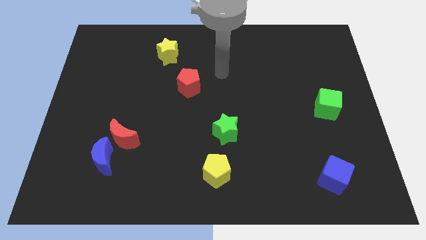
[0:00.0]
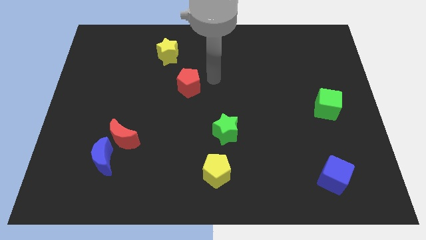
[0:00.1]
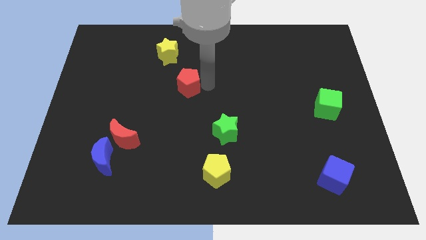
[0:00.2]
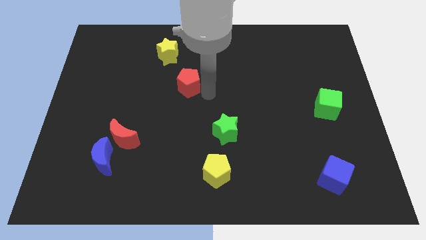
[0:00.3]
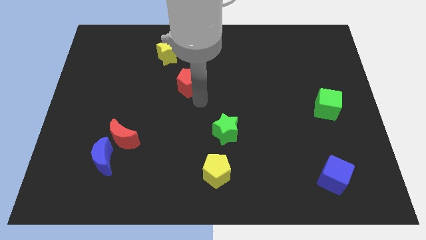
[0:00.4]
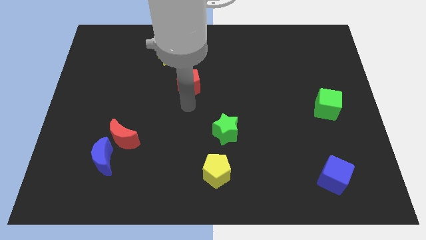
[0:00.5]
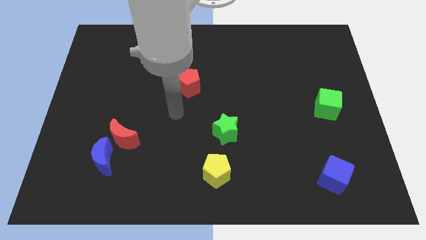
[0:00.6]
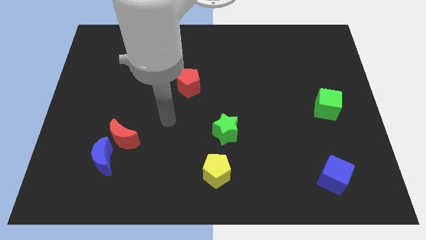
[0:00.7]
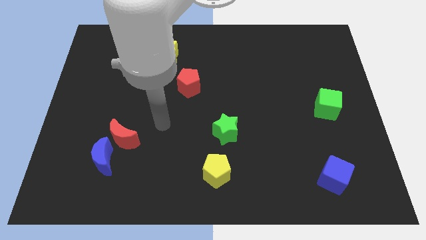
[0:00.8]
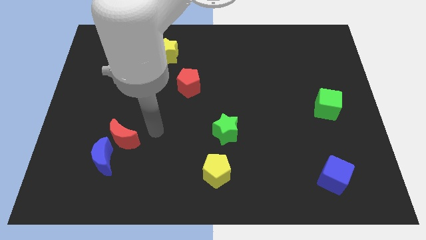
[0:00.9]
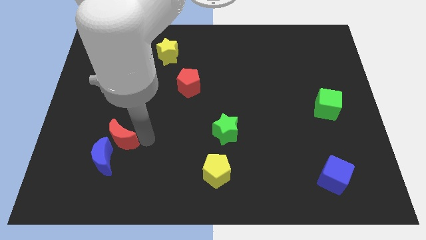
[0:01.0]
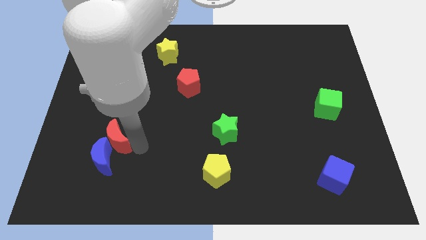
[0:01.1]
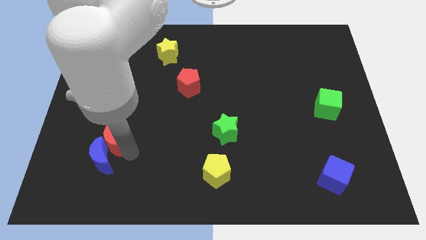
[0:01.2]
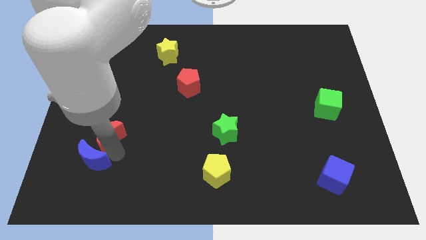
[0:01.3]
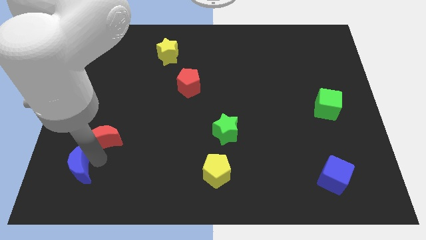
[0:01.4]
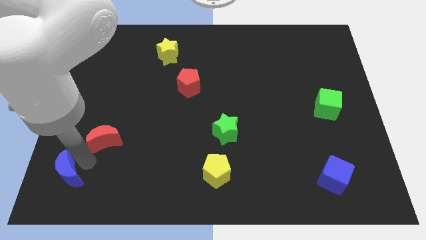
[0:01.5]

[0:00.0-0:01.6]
separate the red moon from the blue moon

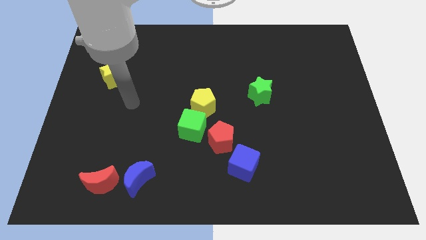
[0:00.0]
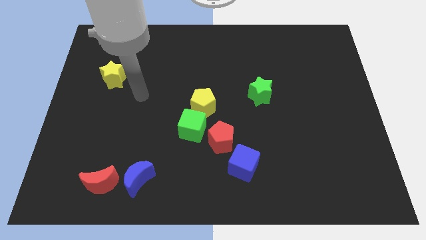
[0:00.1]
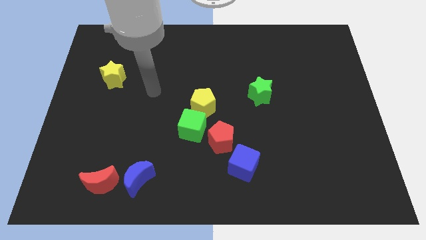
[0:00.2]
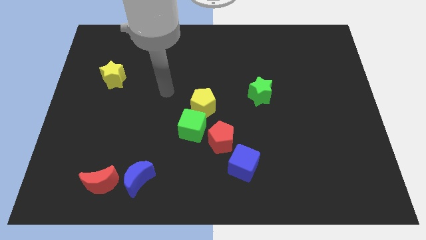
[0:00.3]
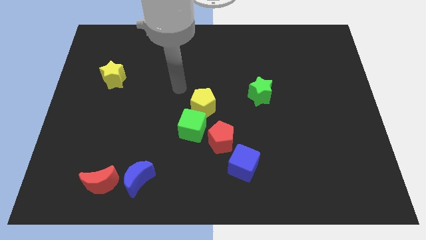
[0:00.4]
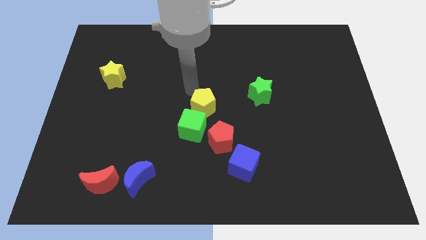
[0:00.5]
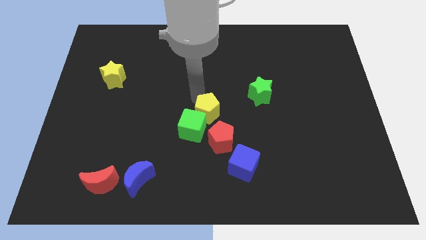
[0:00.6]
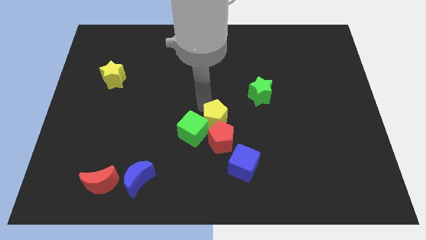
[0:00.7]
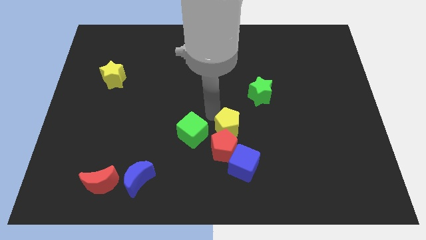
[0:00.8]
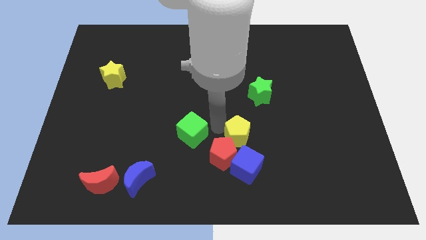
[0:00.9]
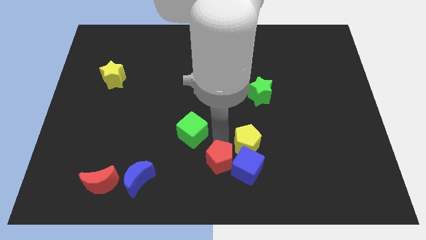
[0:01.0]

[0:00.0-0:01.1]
separate the green cube from the yellow pentagon and red pentagon

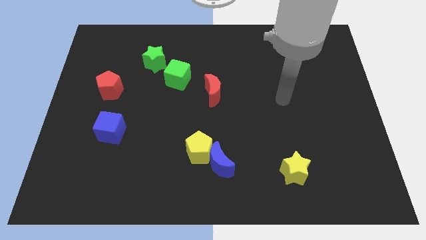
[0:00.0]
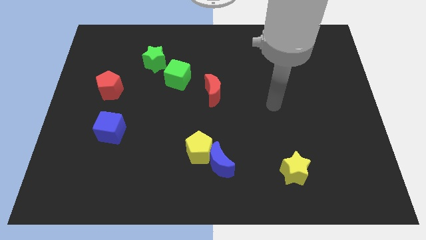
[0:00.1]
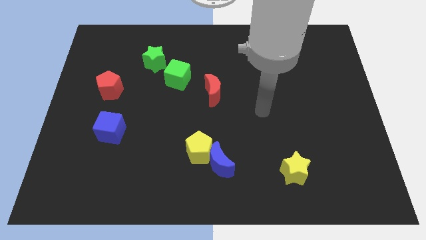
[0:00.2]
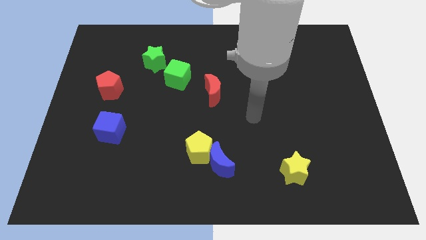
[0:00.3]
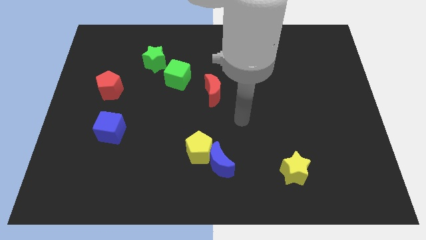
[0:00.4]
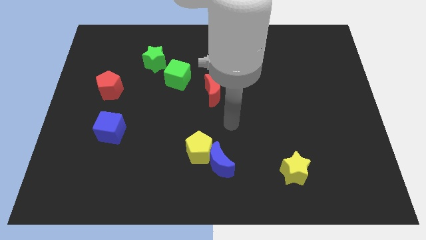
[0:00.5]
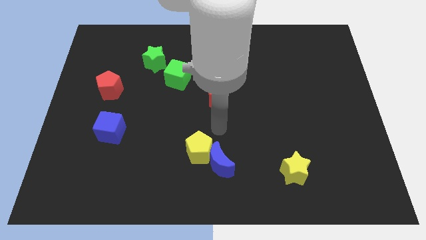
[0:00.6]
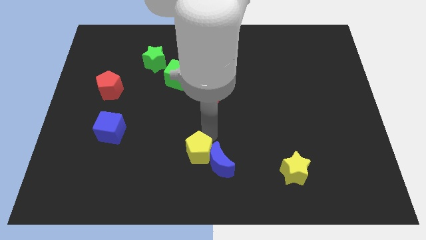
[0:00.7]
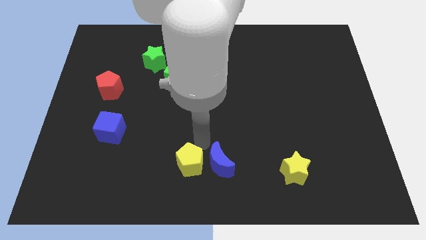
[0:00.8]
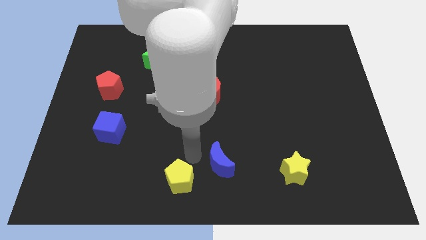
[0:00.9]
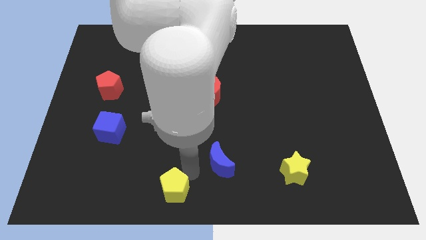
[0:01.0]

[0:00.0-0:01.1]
move the blue moon away from the yellow pentagon

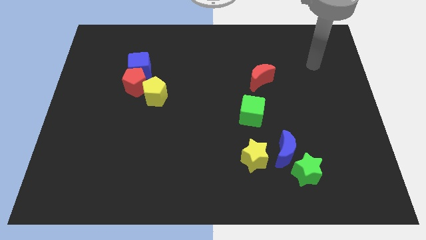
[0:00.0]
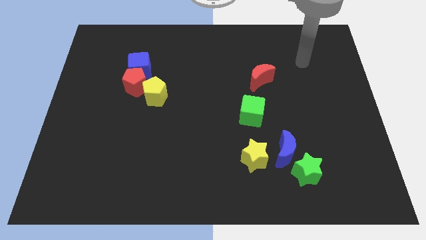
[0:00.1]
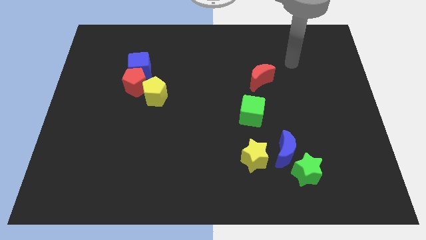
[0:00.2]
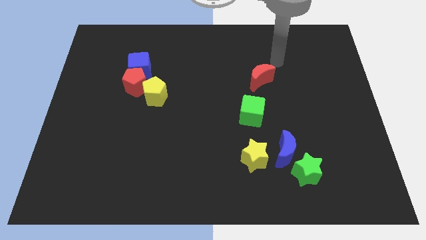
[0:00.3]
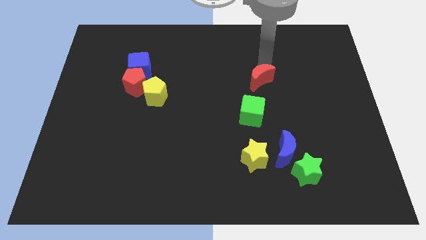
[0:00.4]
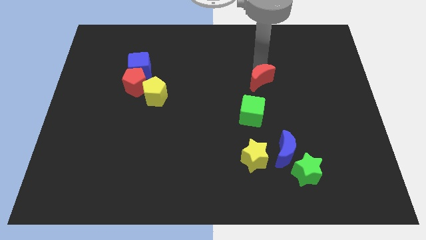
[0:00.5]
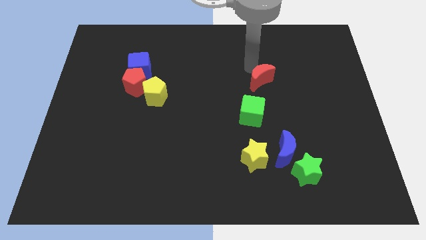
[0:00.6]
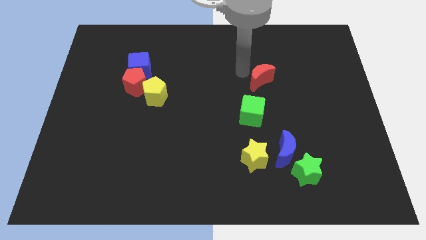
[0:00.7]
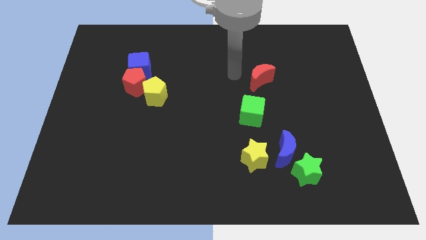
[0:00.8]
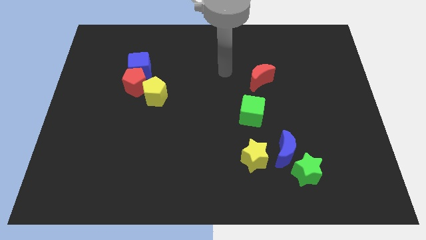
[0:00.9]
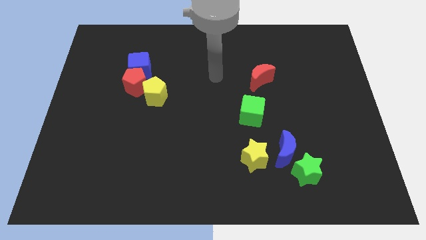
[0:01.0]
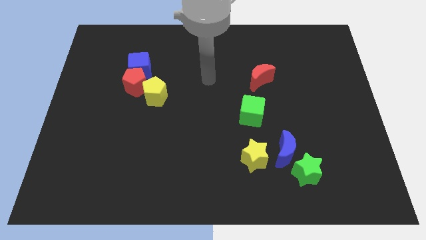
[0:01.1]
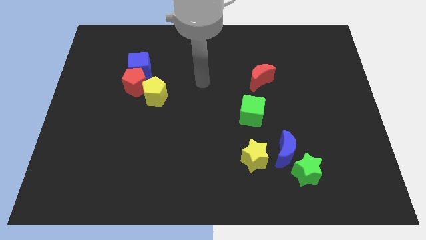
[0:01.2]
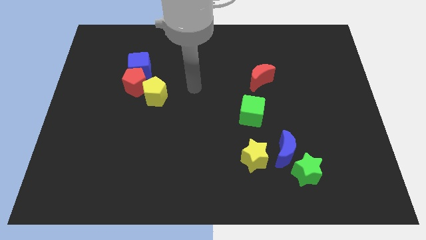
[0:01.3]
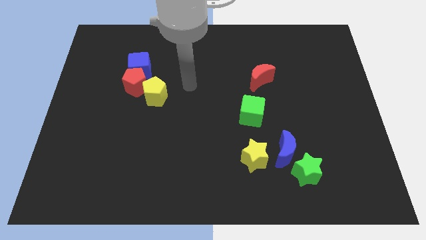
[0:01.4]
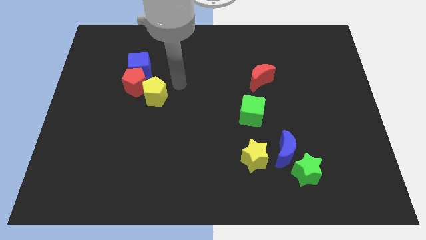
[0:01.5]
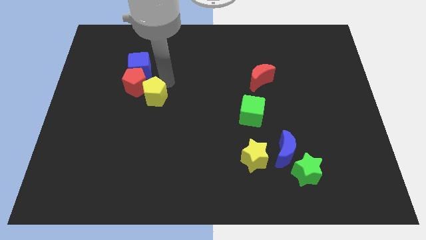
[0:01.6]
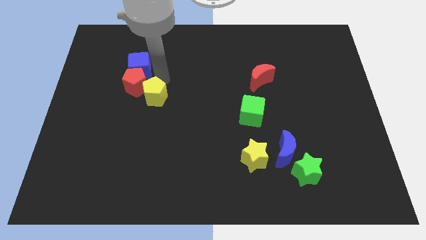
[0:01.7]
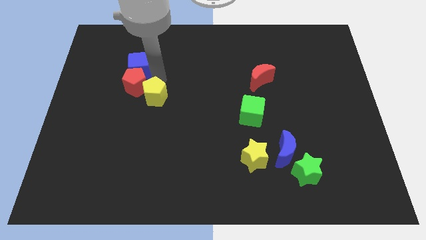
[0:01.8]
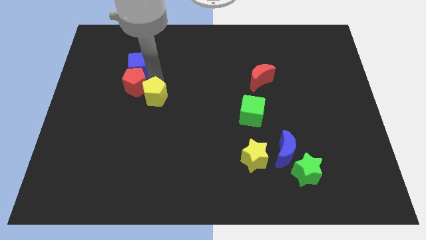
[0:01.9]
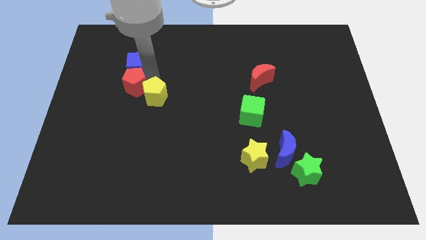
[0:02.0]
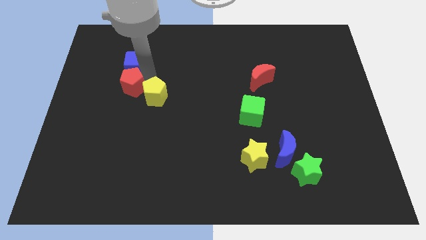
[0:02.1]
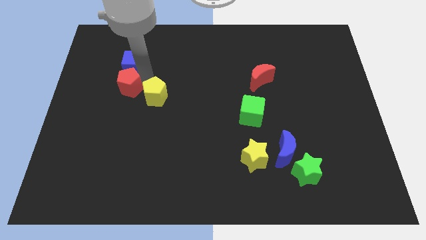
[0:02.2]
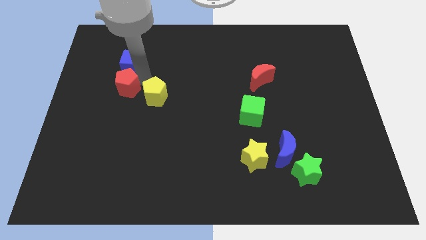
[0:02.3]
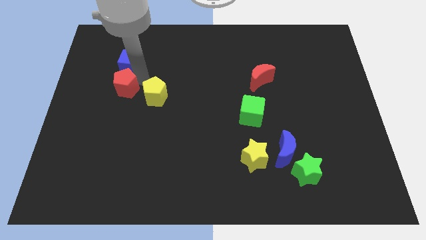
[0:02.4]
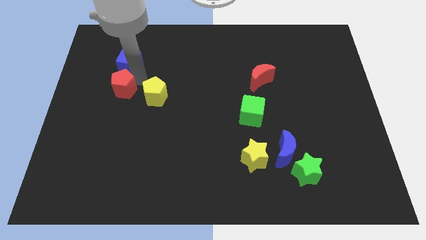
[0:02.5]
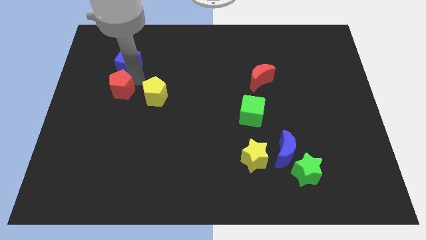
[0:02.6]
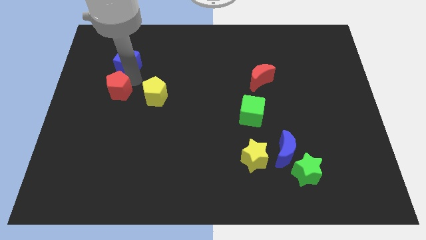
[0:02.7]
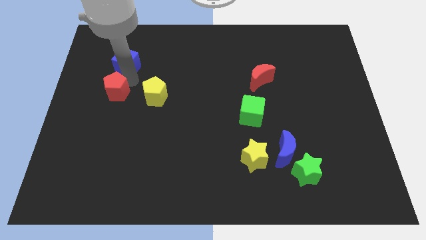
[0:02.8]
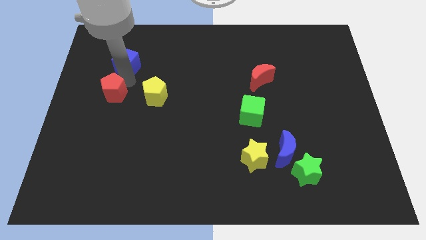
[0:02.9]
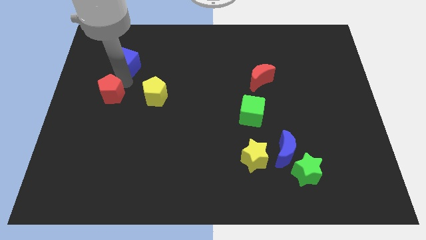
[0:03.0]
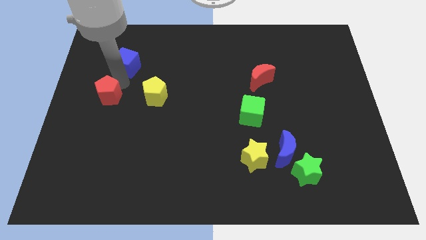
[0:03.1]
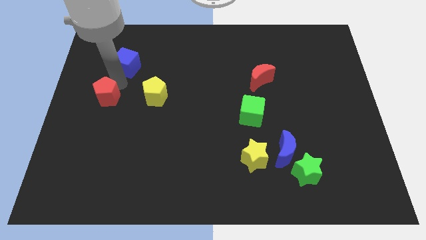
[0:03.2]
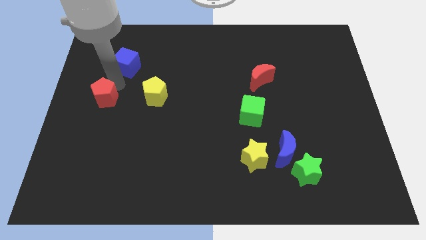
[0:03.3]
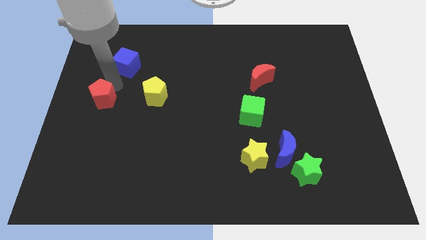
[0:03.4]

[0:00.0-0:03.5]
move the red pentagon away from the blue cube and yellow pentagon

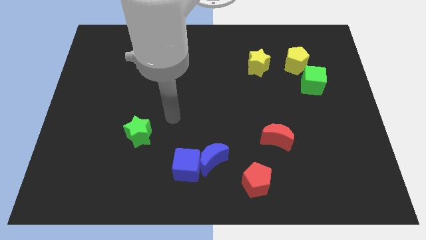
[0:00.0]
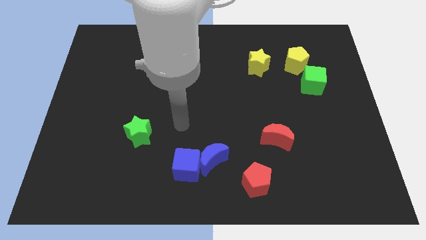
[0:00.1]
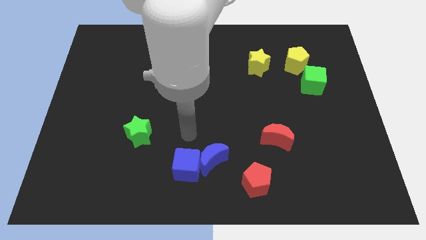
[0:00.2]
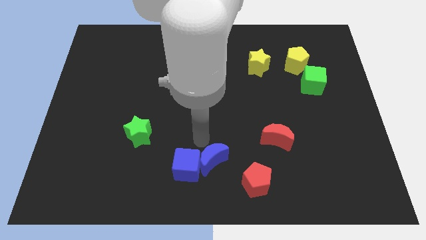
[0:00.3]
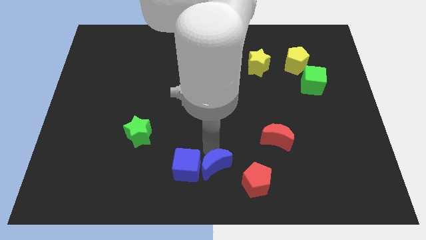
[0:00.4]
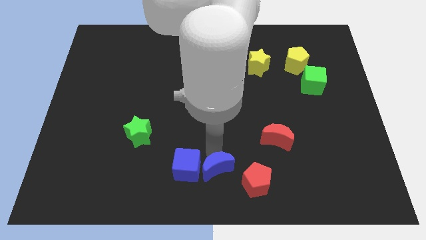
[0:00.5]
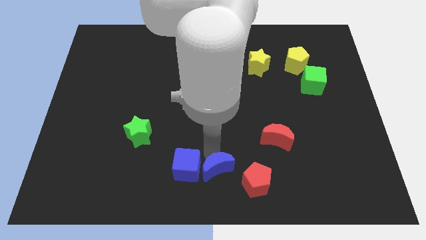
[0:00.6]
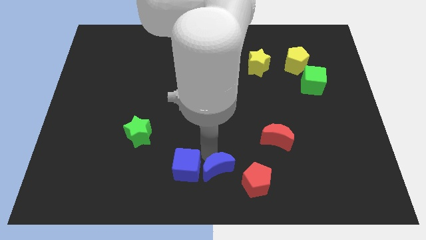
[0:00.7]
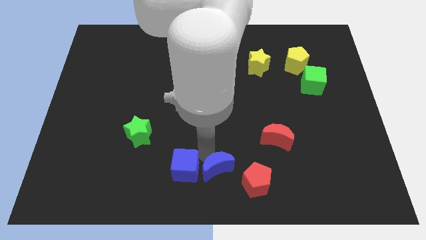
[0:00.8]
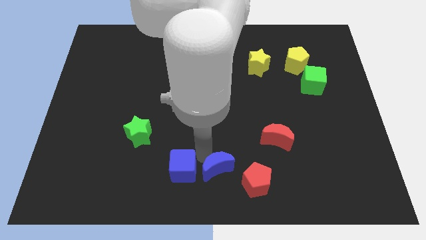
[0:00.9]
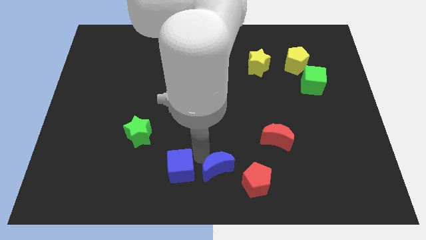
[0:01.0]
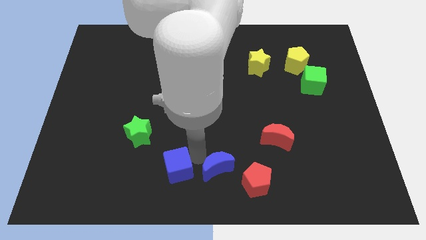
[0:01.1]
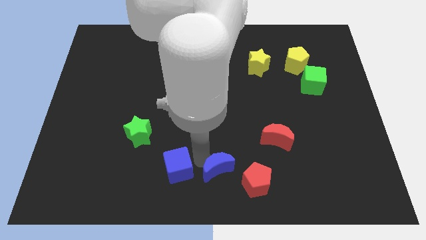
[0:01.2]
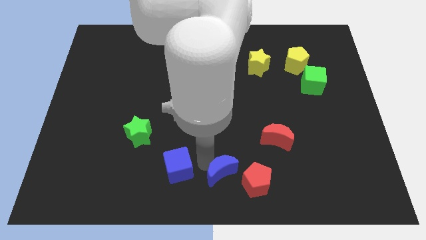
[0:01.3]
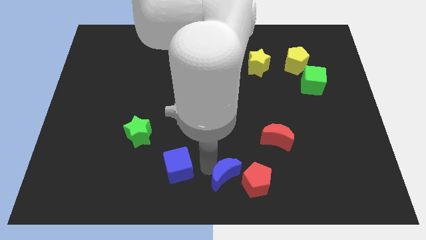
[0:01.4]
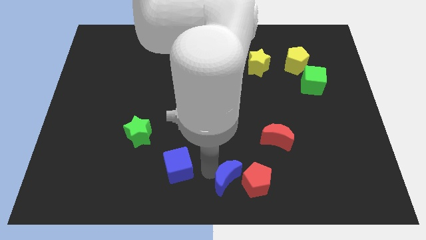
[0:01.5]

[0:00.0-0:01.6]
move the blue cube away from the blue moon

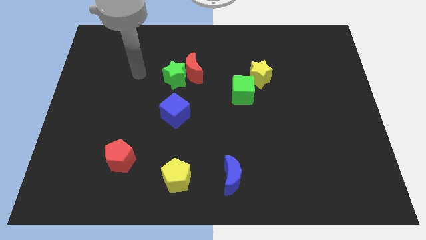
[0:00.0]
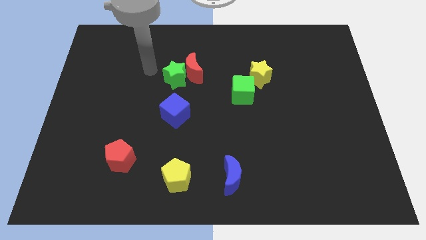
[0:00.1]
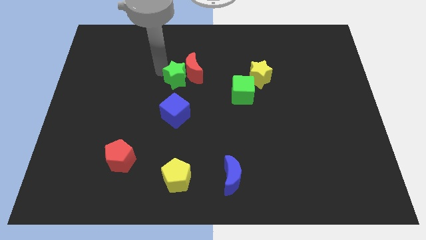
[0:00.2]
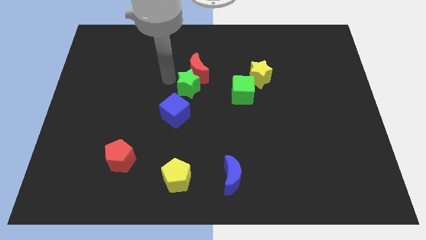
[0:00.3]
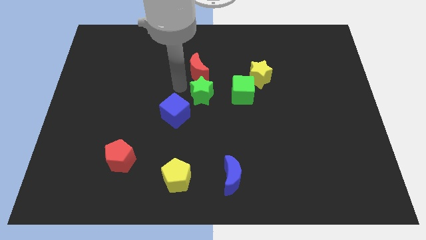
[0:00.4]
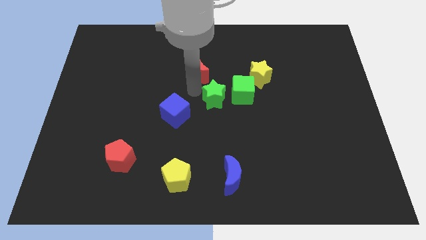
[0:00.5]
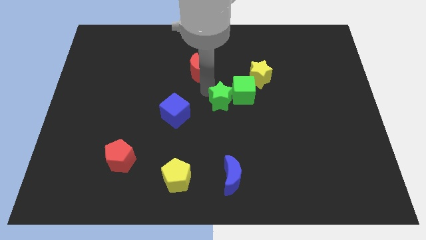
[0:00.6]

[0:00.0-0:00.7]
separate the red moon from the green star
